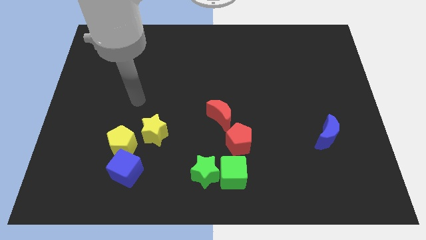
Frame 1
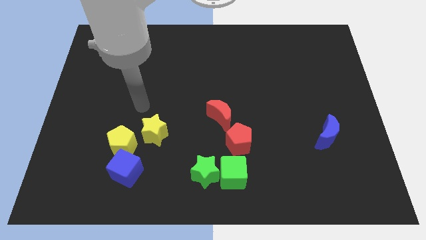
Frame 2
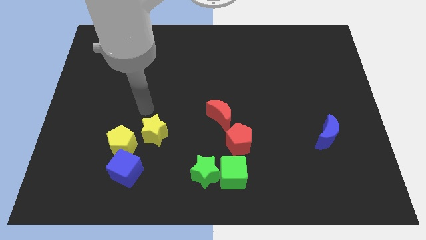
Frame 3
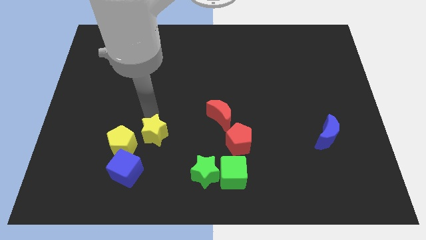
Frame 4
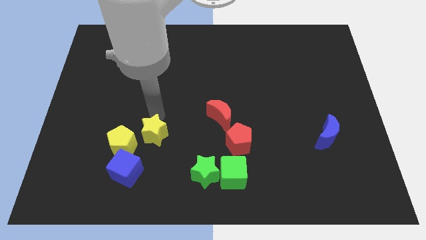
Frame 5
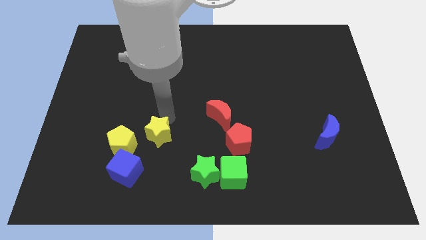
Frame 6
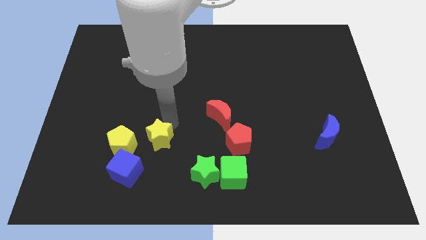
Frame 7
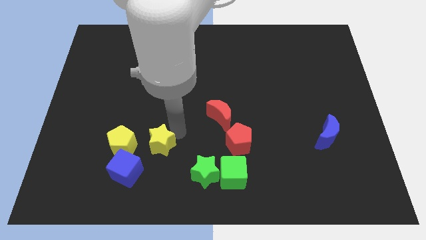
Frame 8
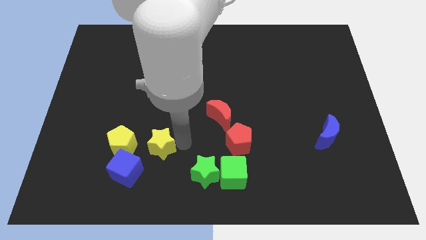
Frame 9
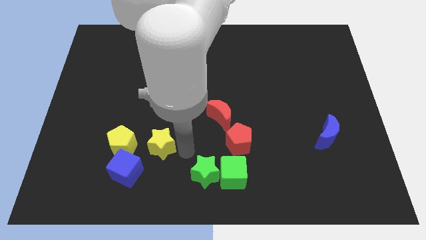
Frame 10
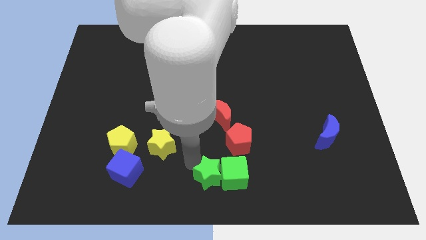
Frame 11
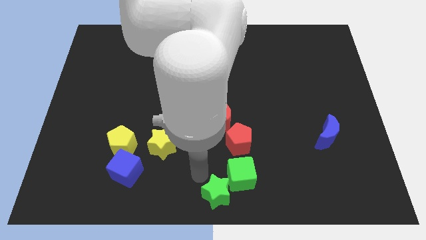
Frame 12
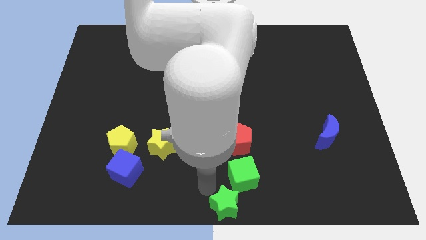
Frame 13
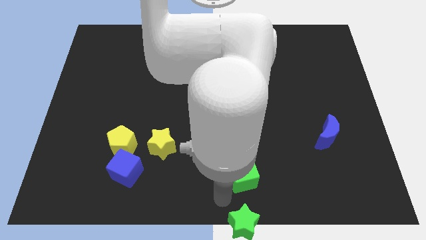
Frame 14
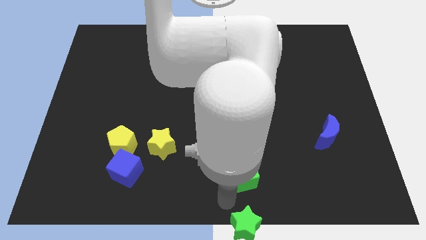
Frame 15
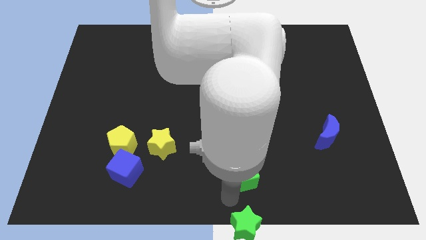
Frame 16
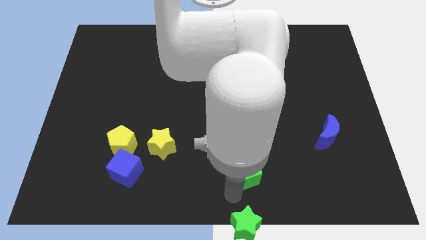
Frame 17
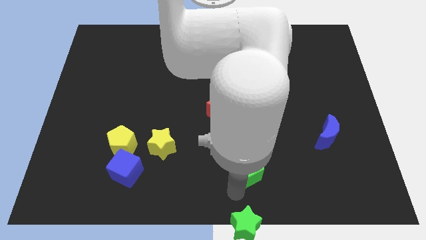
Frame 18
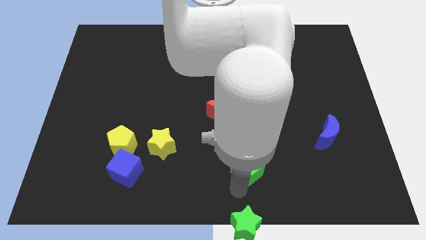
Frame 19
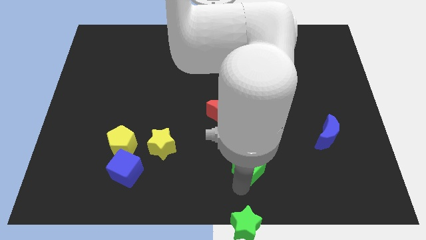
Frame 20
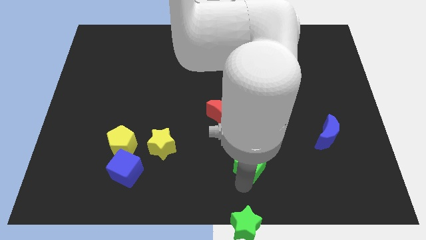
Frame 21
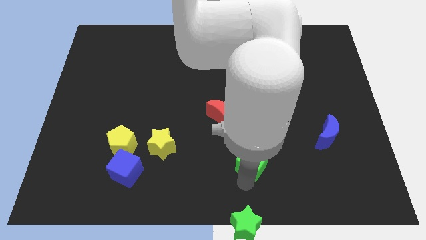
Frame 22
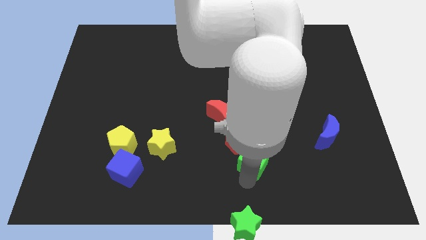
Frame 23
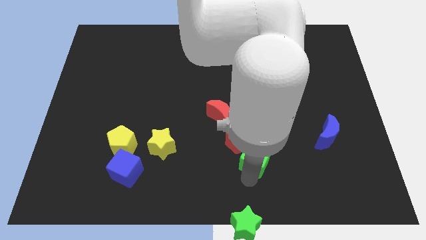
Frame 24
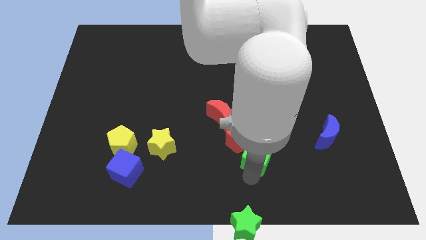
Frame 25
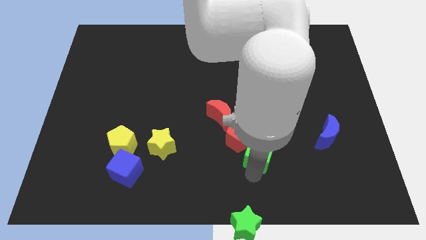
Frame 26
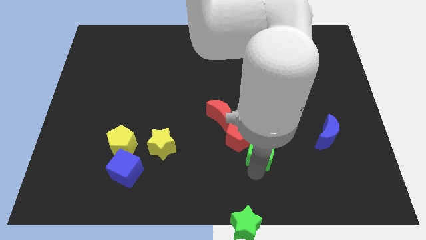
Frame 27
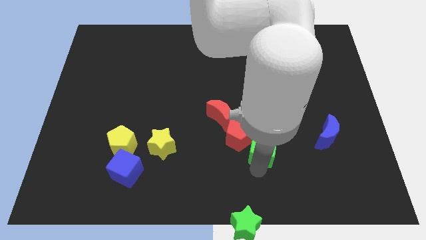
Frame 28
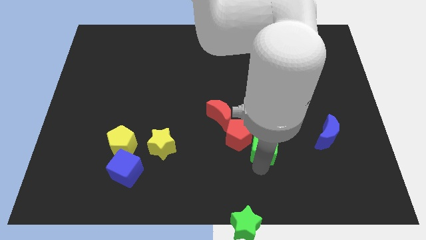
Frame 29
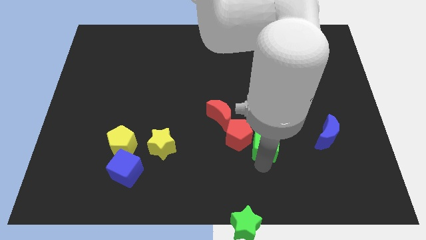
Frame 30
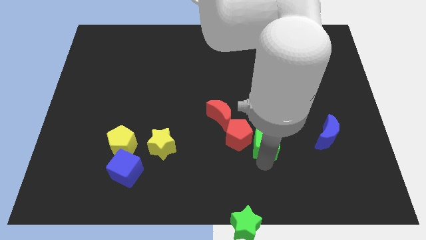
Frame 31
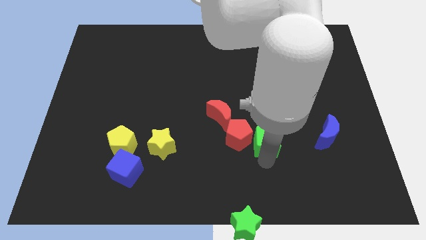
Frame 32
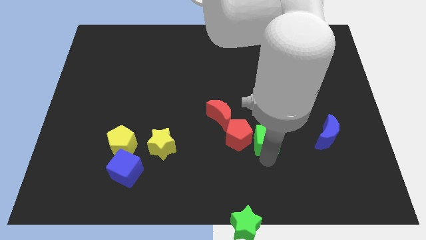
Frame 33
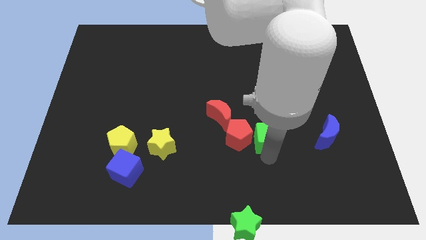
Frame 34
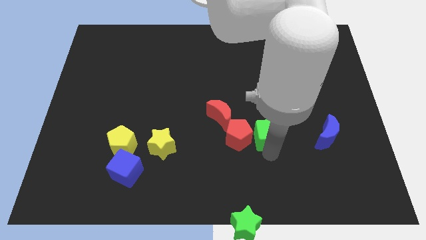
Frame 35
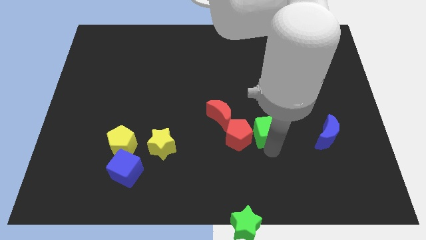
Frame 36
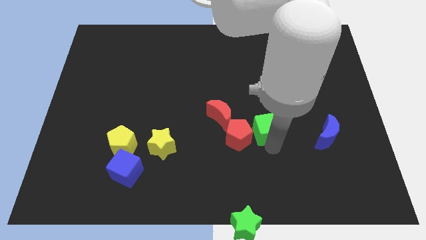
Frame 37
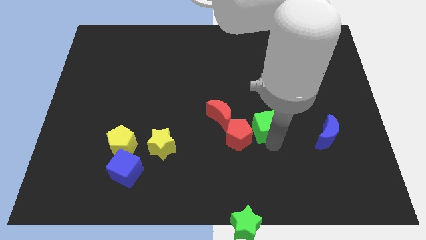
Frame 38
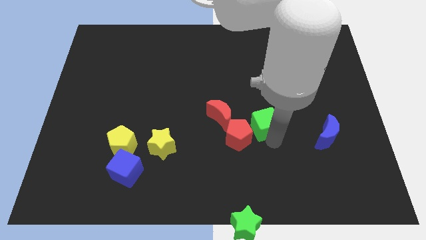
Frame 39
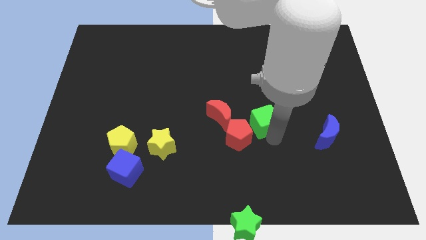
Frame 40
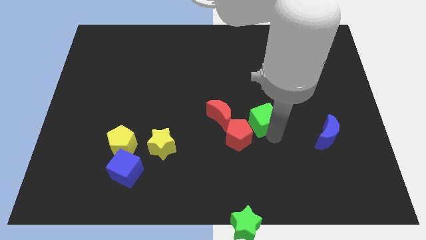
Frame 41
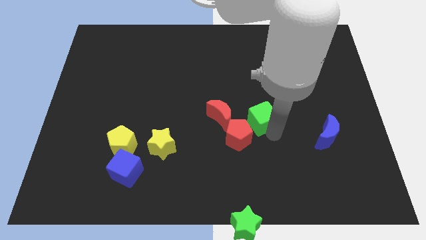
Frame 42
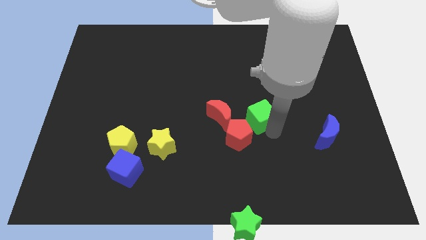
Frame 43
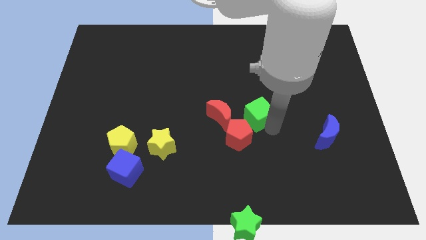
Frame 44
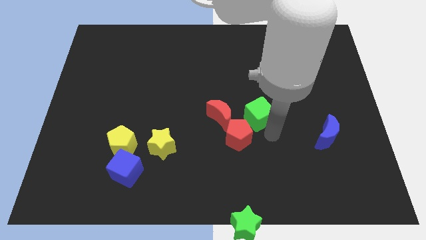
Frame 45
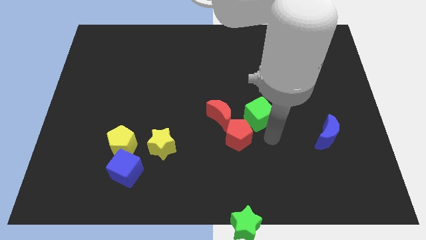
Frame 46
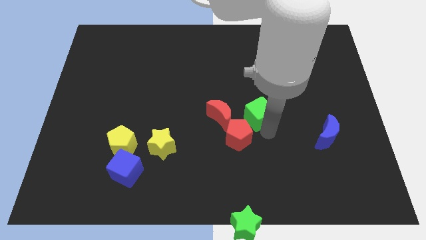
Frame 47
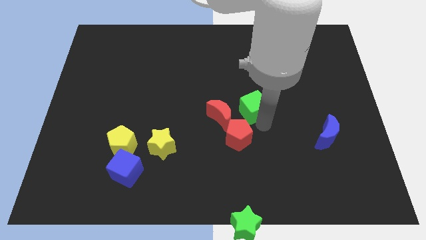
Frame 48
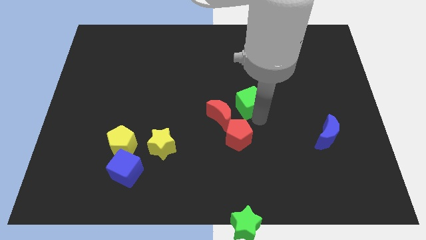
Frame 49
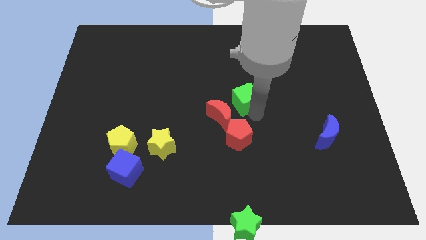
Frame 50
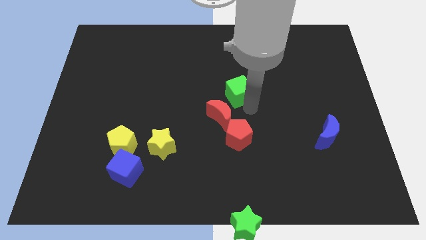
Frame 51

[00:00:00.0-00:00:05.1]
slide the green cube up

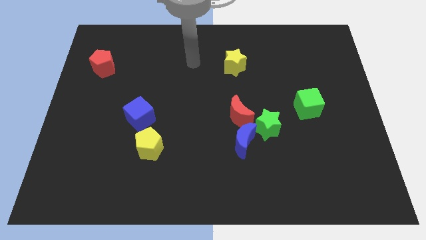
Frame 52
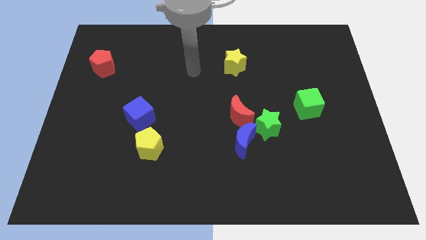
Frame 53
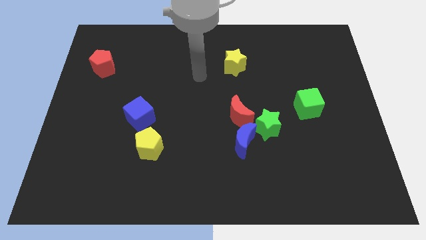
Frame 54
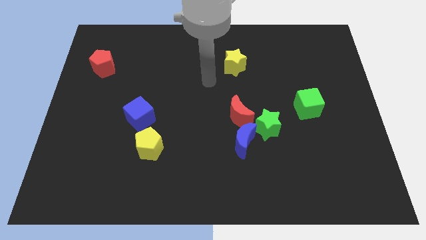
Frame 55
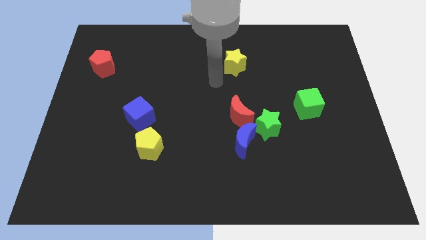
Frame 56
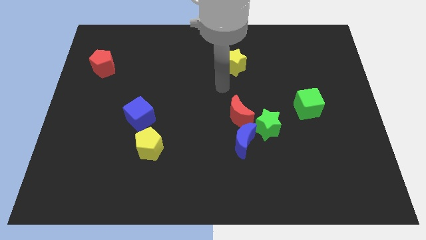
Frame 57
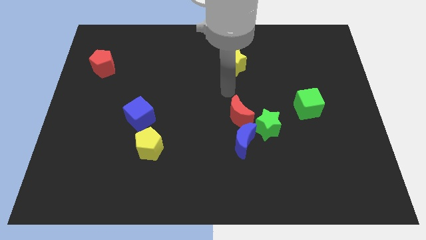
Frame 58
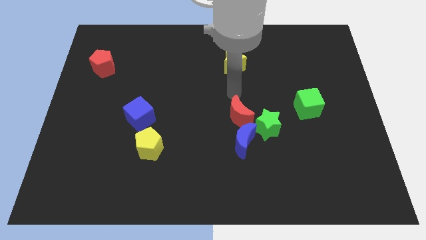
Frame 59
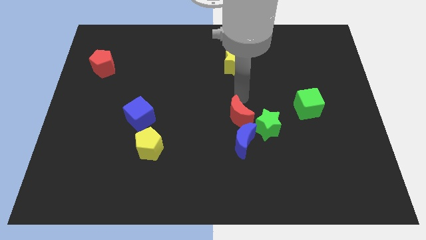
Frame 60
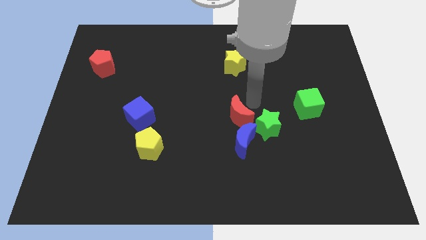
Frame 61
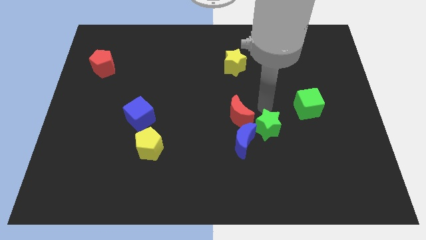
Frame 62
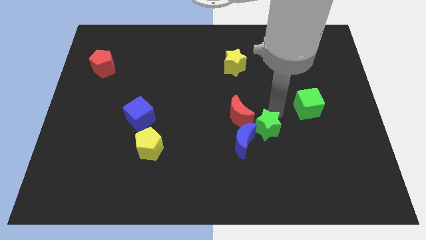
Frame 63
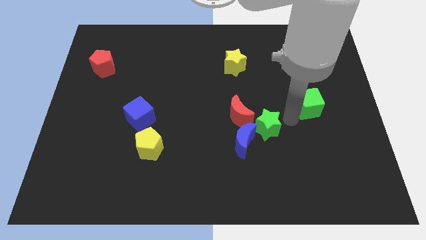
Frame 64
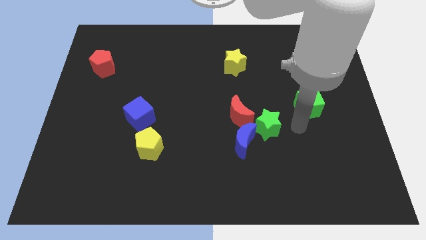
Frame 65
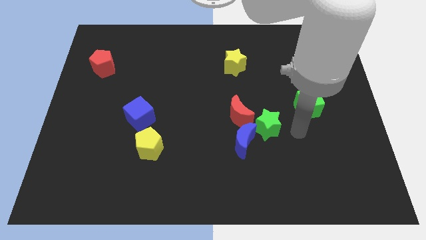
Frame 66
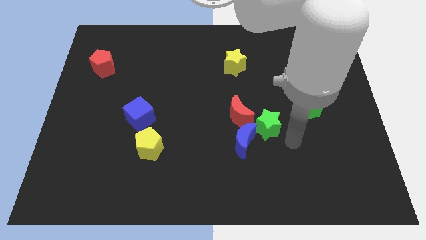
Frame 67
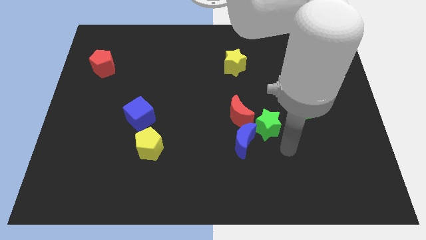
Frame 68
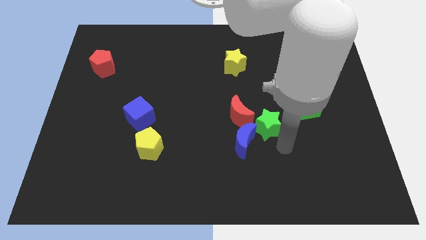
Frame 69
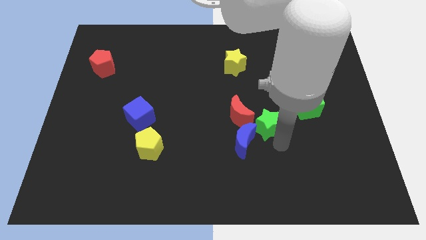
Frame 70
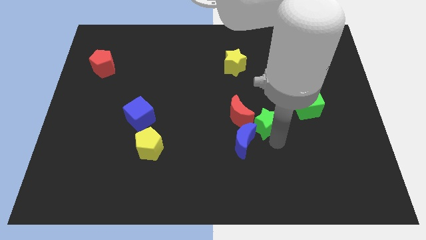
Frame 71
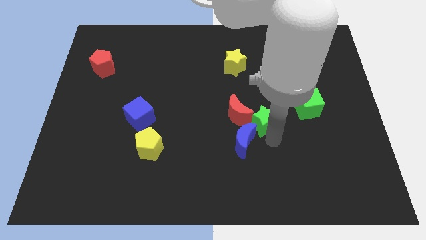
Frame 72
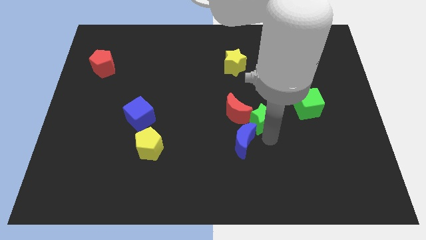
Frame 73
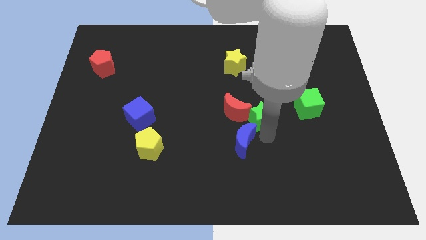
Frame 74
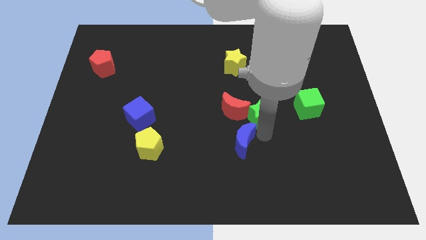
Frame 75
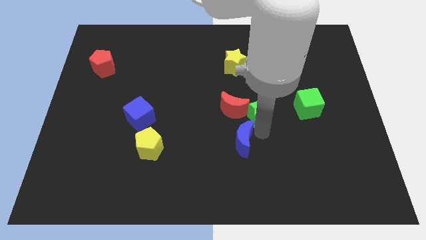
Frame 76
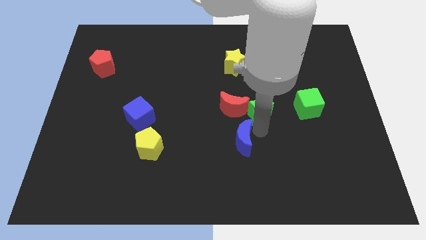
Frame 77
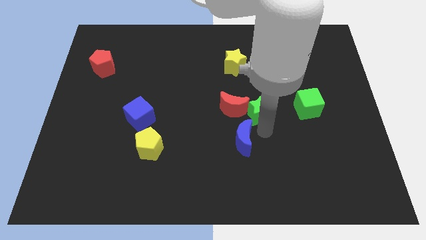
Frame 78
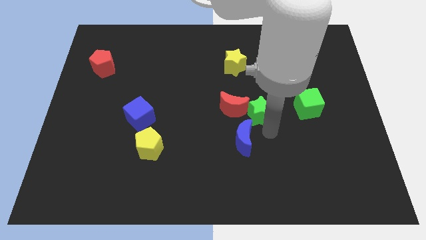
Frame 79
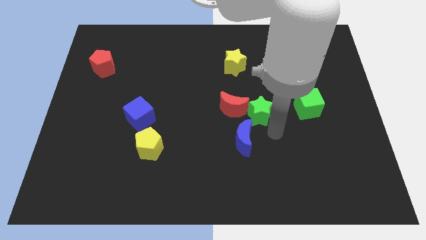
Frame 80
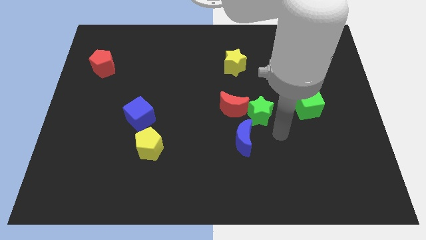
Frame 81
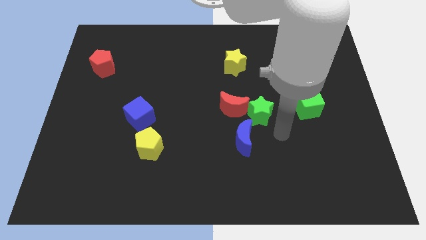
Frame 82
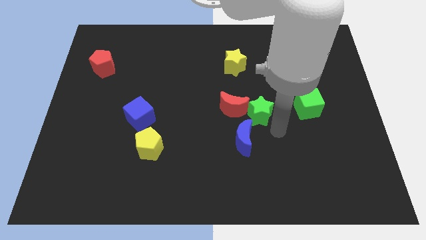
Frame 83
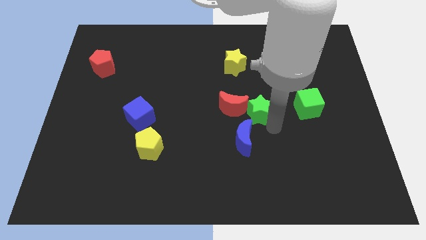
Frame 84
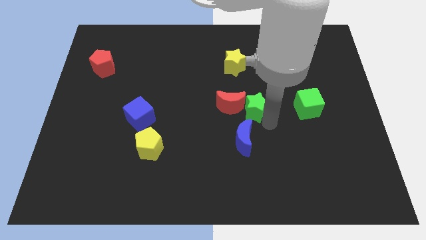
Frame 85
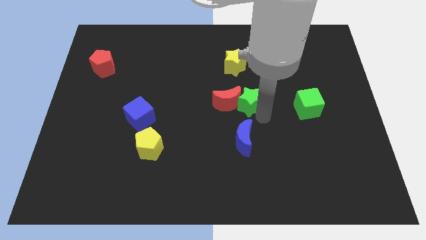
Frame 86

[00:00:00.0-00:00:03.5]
slightly push the green star upwards and to the left diagonally
